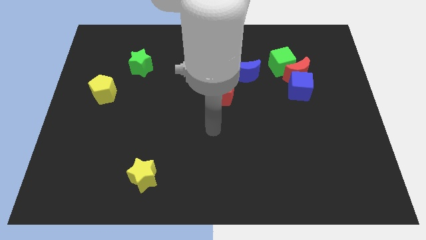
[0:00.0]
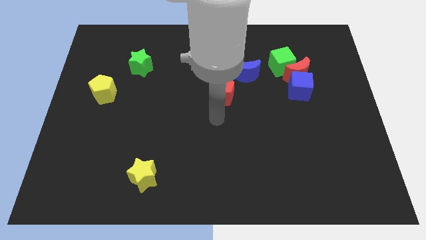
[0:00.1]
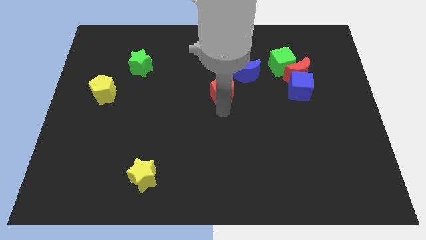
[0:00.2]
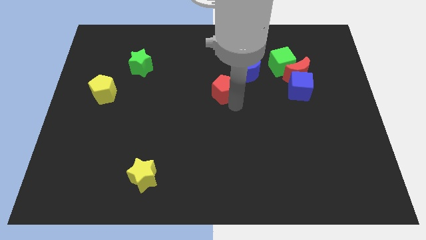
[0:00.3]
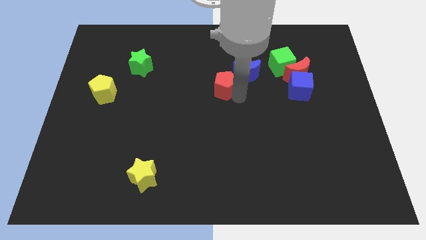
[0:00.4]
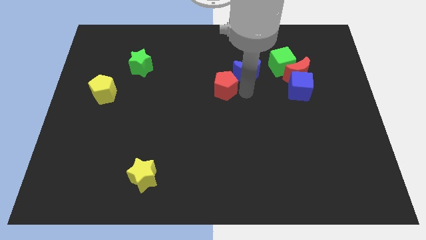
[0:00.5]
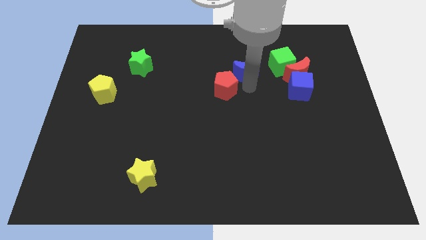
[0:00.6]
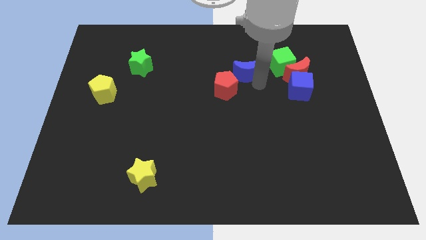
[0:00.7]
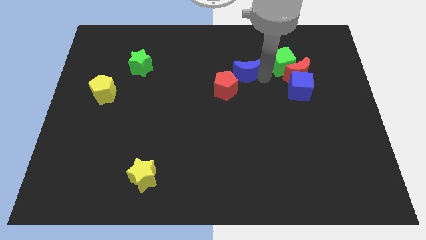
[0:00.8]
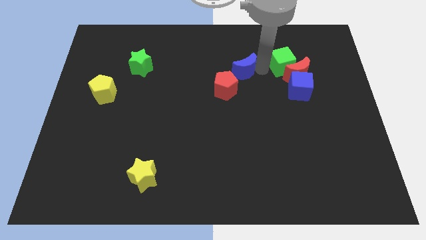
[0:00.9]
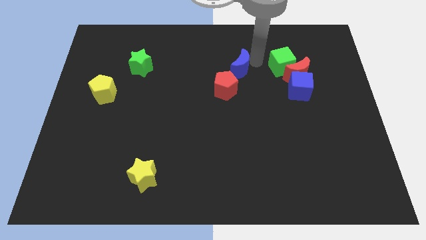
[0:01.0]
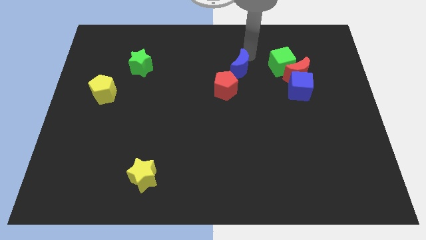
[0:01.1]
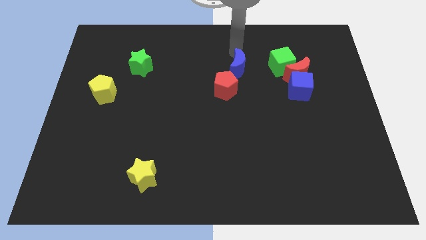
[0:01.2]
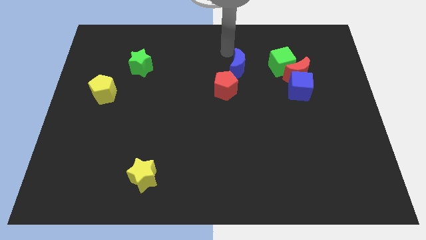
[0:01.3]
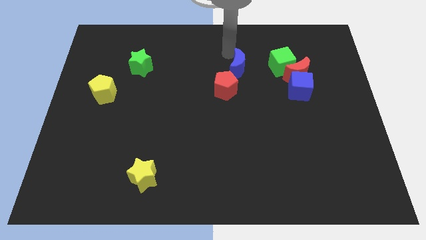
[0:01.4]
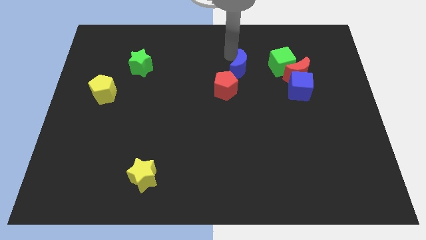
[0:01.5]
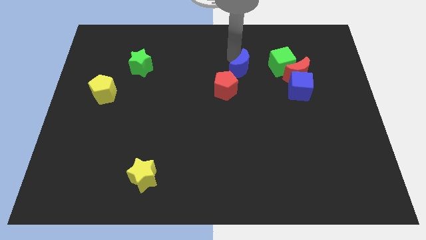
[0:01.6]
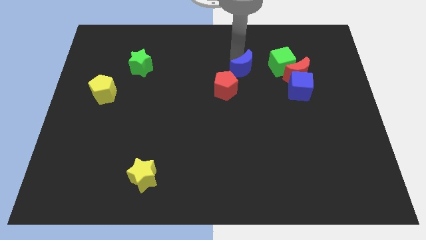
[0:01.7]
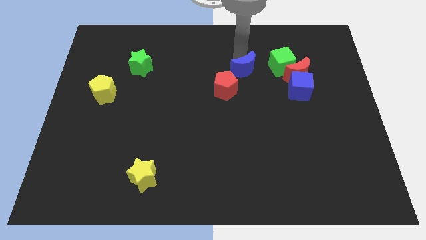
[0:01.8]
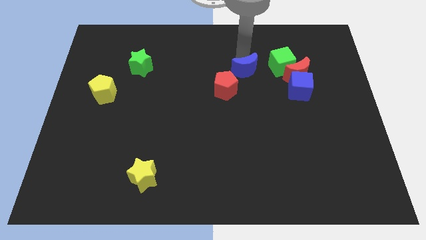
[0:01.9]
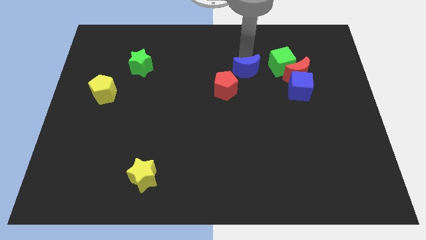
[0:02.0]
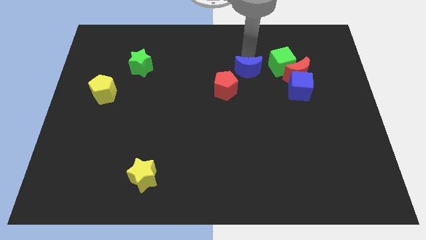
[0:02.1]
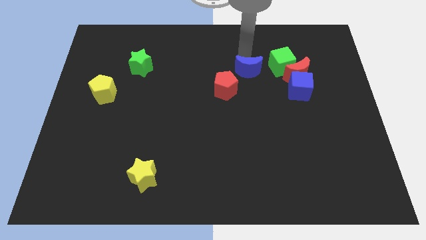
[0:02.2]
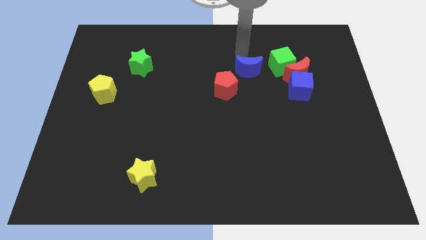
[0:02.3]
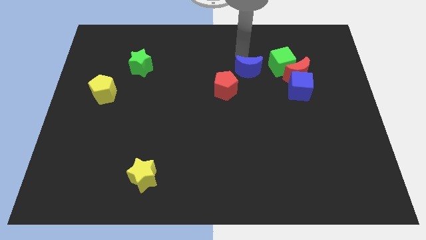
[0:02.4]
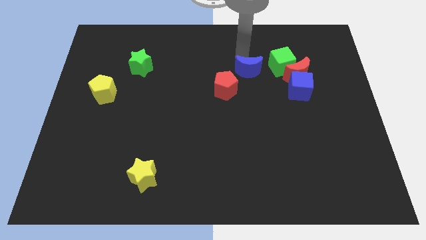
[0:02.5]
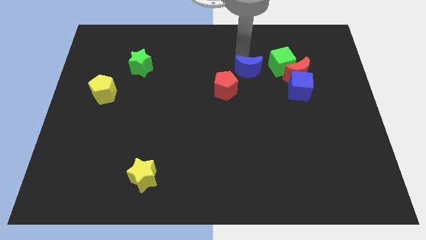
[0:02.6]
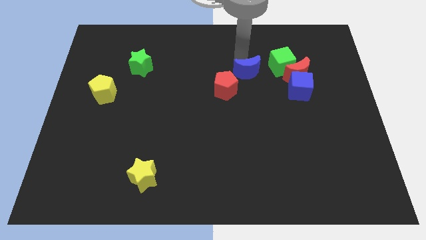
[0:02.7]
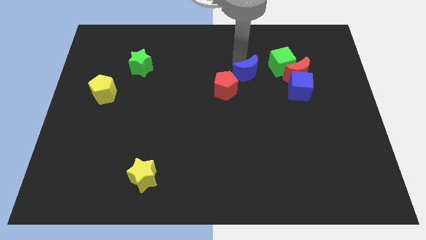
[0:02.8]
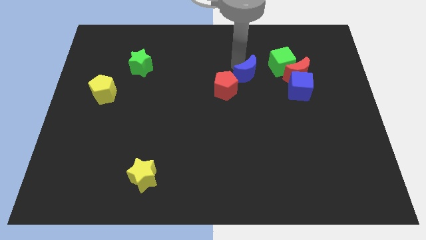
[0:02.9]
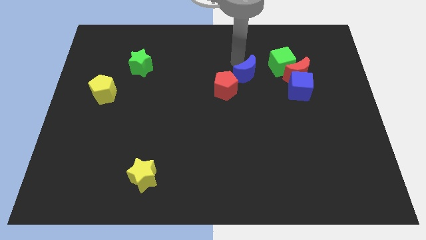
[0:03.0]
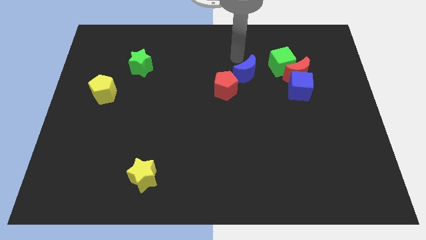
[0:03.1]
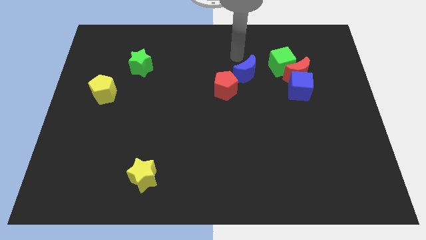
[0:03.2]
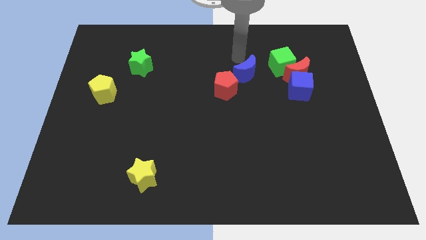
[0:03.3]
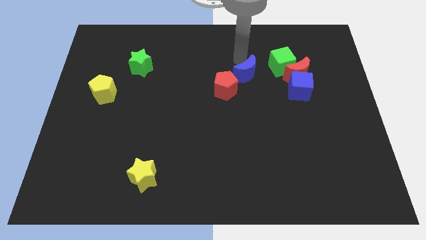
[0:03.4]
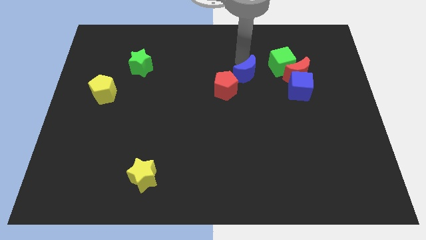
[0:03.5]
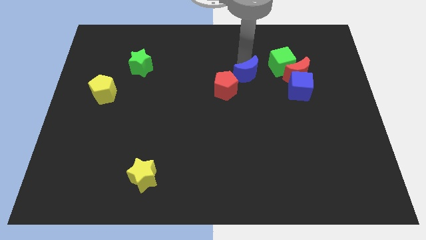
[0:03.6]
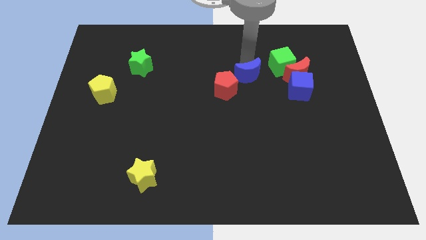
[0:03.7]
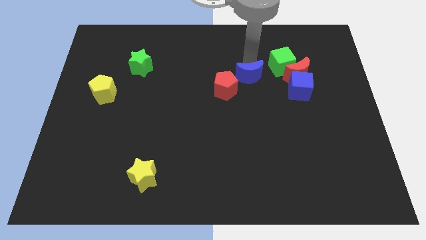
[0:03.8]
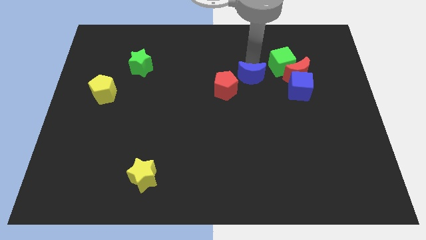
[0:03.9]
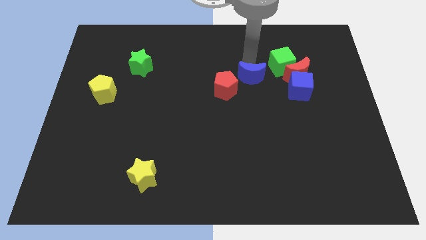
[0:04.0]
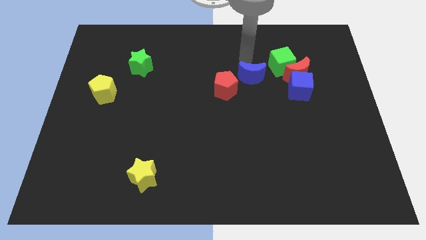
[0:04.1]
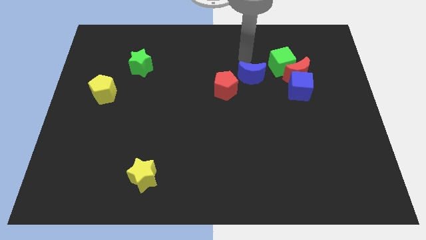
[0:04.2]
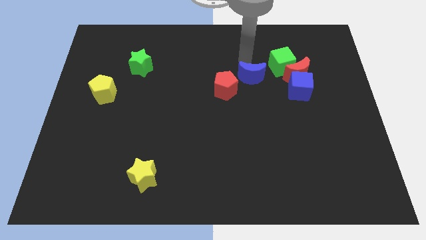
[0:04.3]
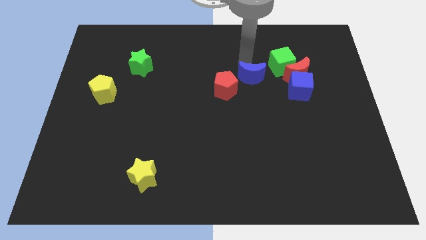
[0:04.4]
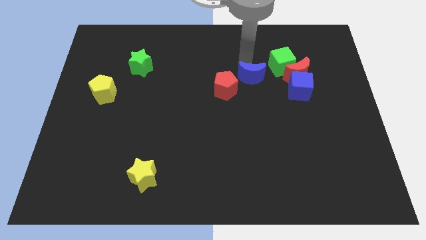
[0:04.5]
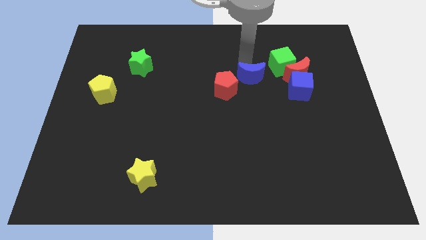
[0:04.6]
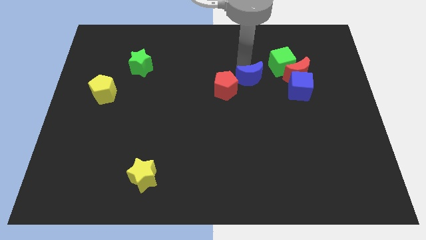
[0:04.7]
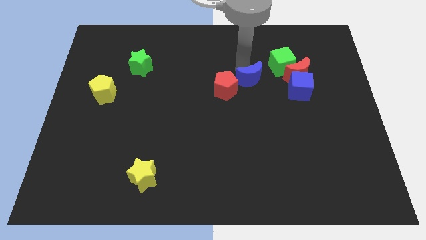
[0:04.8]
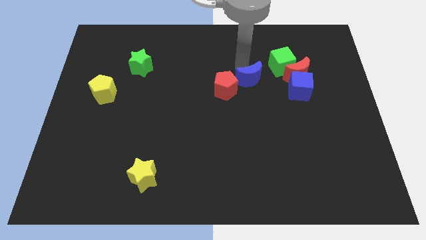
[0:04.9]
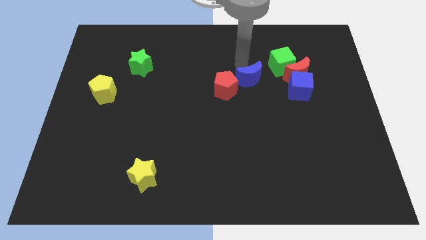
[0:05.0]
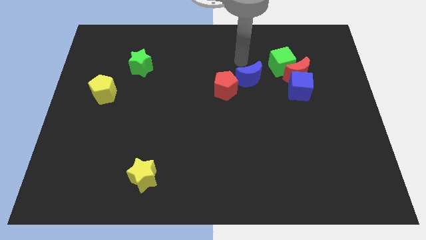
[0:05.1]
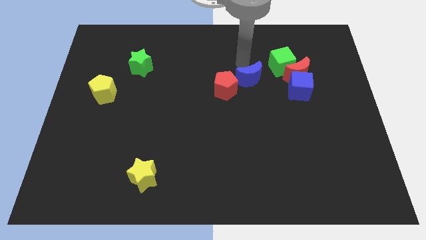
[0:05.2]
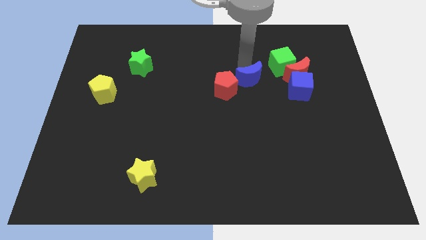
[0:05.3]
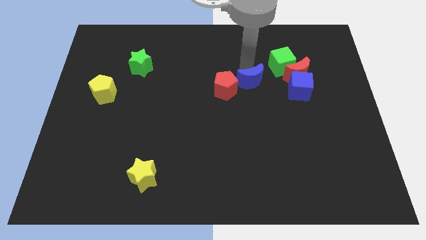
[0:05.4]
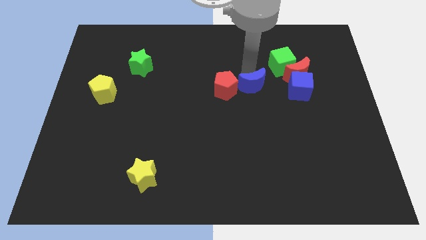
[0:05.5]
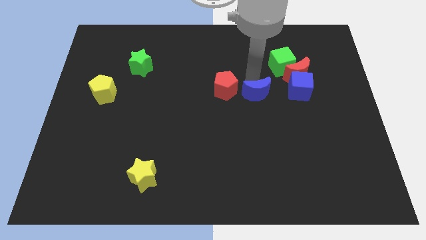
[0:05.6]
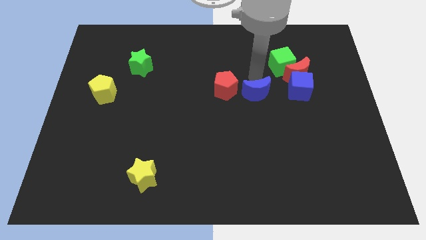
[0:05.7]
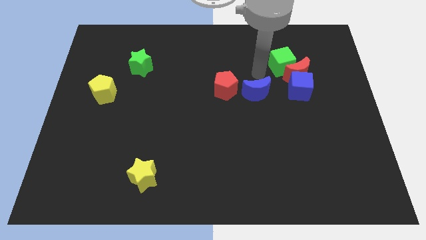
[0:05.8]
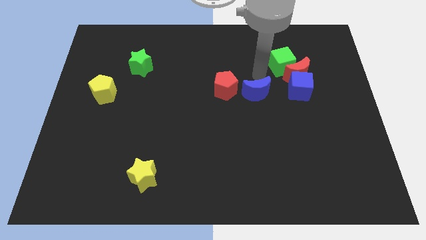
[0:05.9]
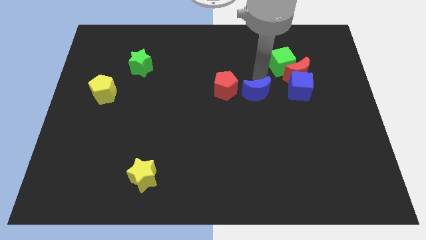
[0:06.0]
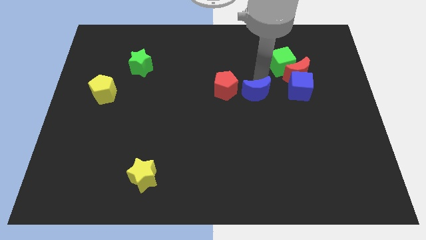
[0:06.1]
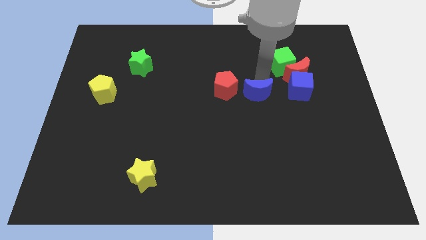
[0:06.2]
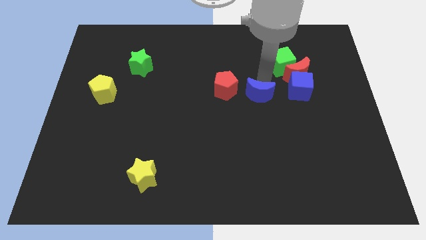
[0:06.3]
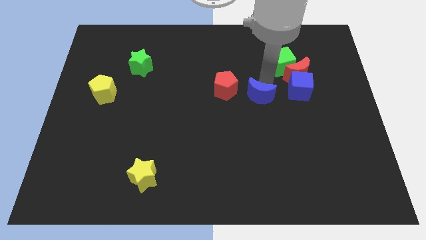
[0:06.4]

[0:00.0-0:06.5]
slightly slide the blue moon down

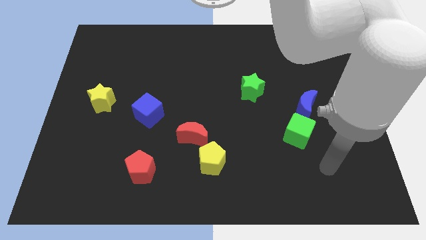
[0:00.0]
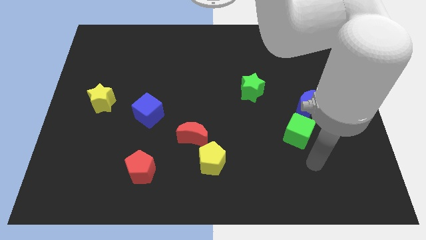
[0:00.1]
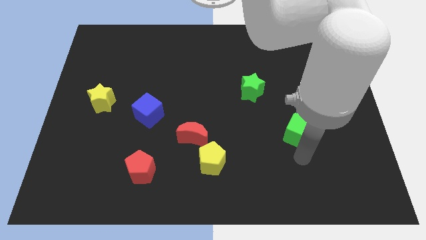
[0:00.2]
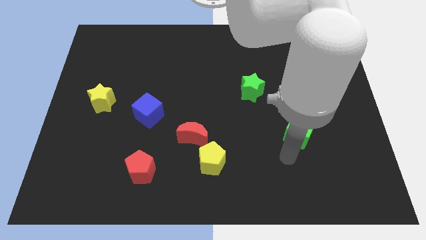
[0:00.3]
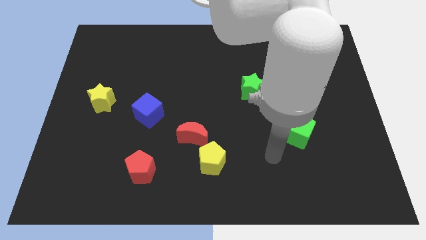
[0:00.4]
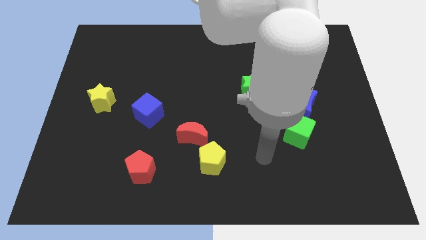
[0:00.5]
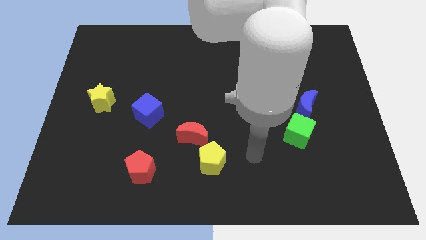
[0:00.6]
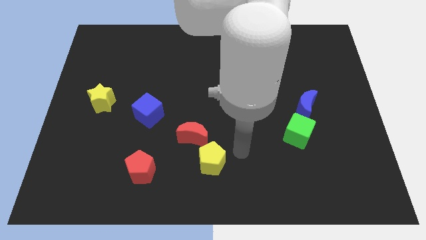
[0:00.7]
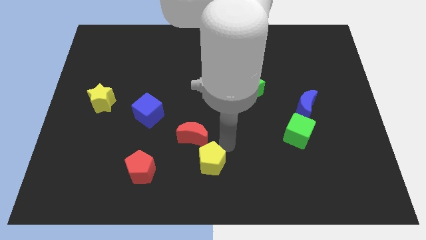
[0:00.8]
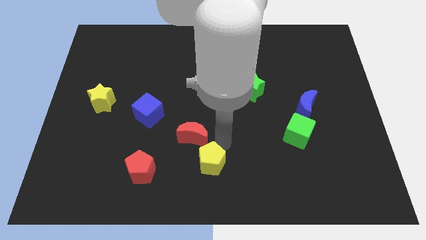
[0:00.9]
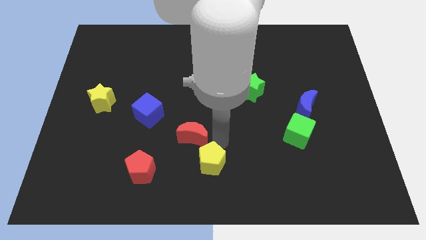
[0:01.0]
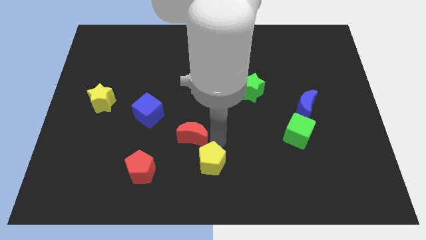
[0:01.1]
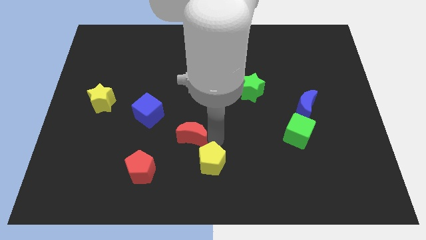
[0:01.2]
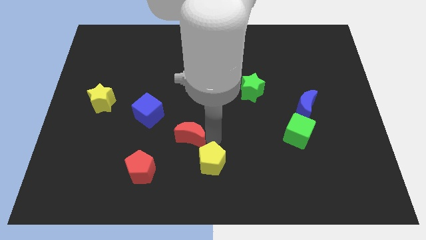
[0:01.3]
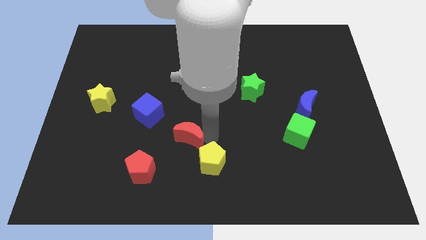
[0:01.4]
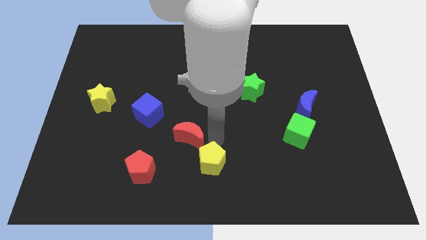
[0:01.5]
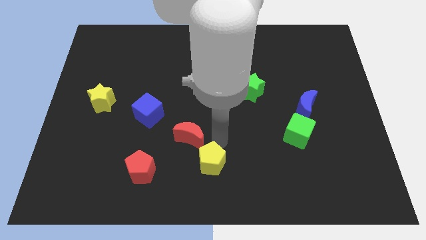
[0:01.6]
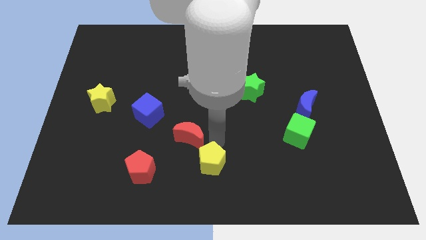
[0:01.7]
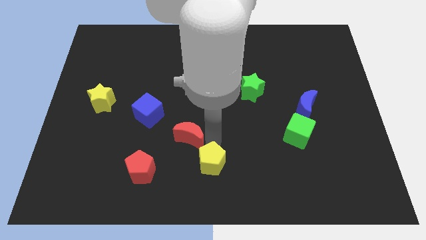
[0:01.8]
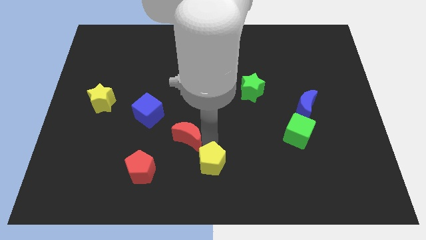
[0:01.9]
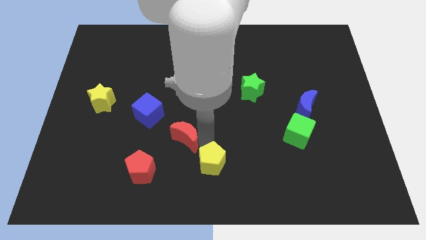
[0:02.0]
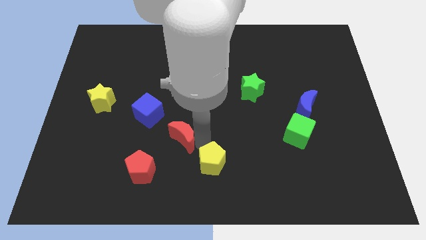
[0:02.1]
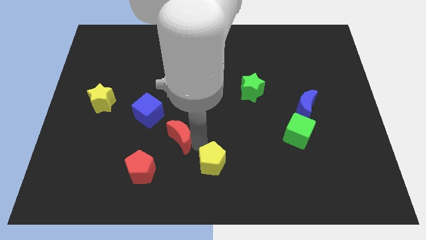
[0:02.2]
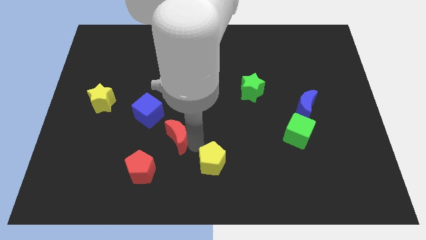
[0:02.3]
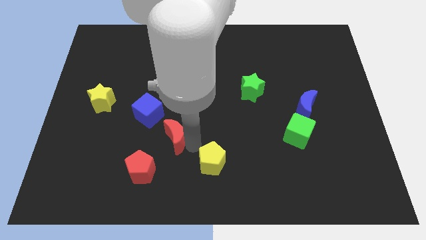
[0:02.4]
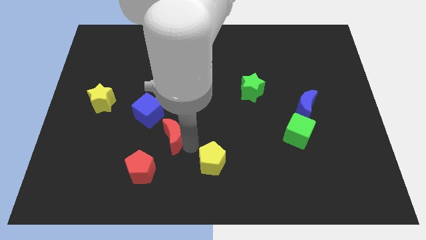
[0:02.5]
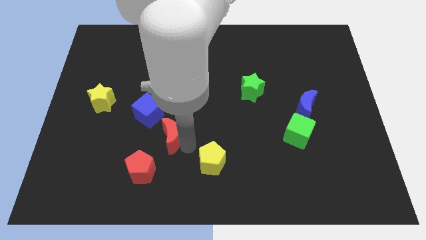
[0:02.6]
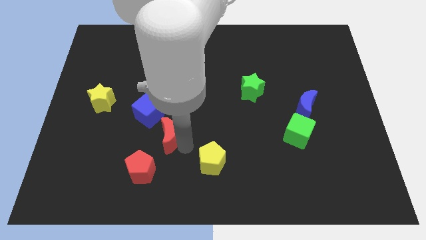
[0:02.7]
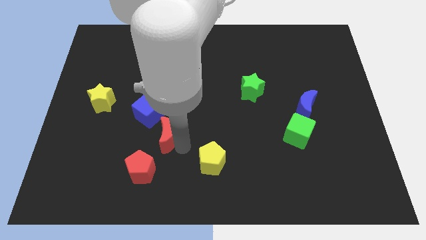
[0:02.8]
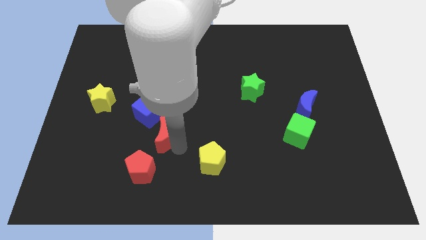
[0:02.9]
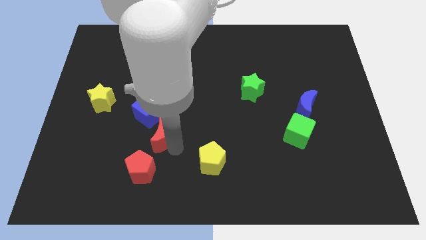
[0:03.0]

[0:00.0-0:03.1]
slide the red moon slightly to the left
